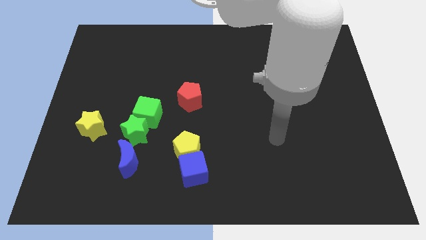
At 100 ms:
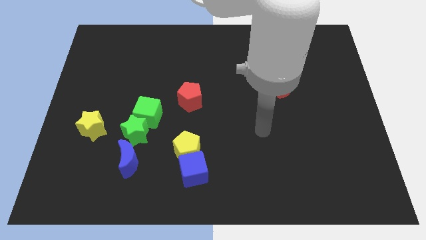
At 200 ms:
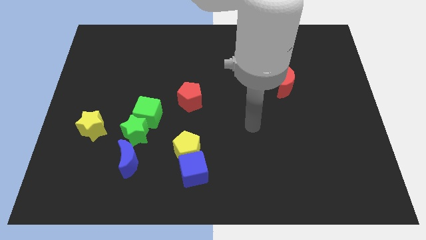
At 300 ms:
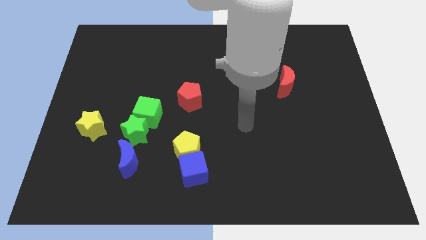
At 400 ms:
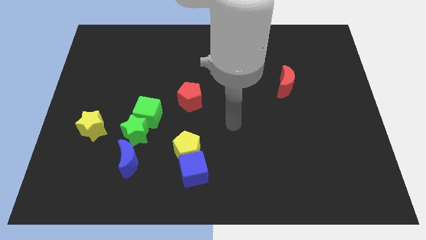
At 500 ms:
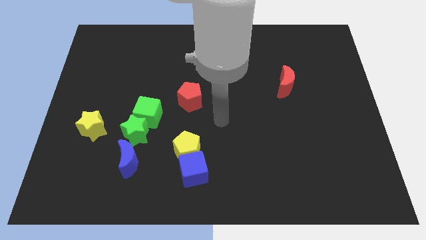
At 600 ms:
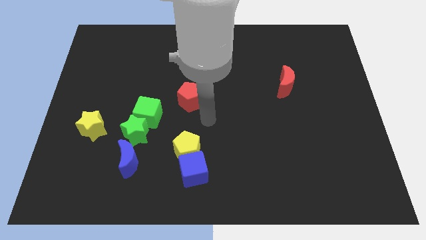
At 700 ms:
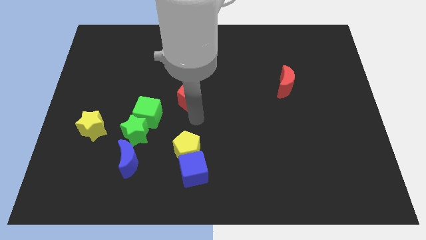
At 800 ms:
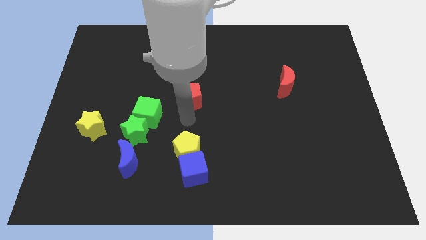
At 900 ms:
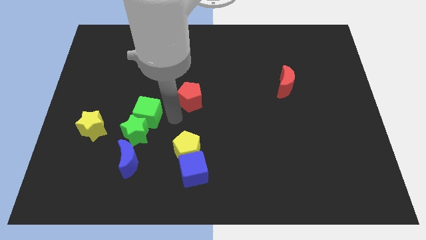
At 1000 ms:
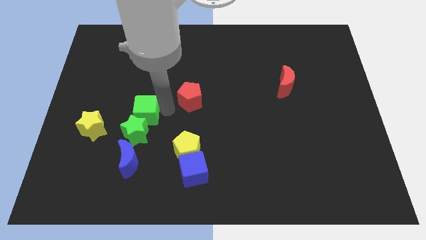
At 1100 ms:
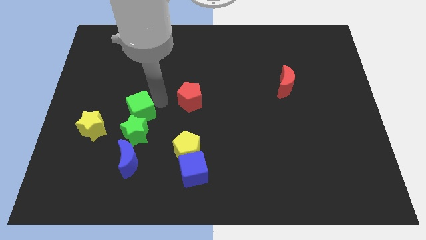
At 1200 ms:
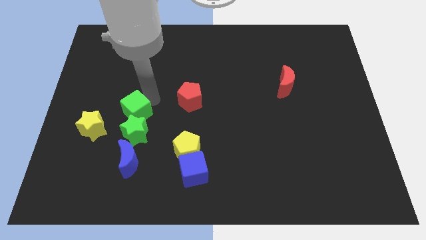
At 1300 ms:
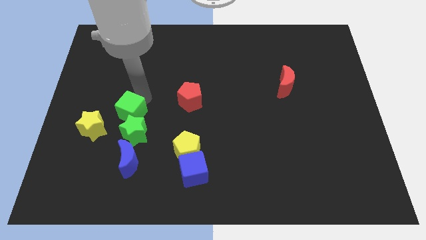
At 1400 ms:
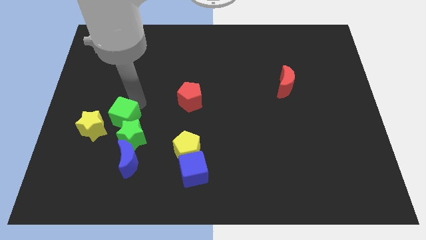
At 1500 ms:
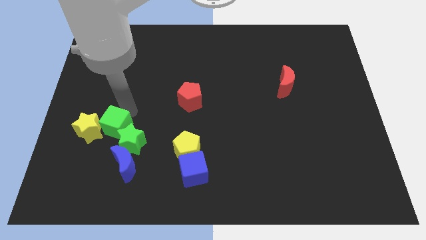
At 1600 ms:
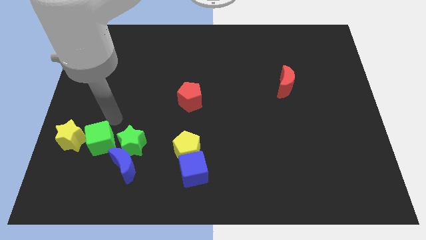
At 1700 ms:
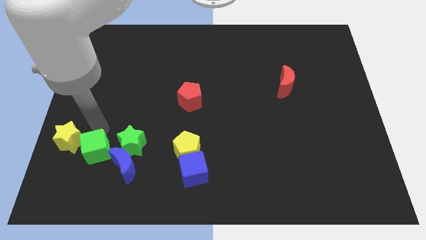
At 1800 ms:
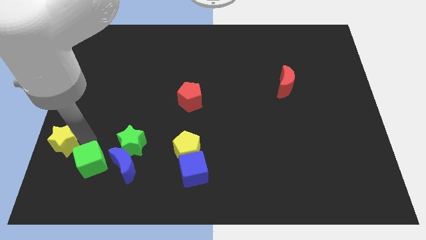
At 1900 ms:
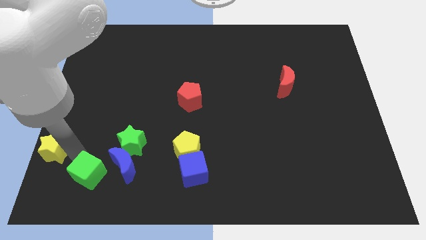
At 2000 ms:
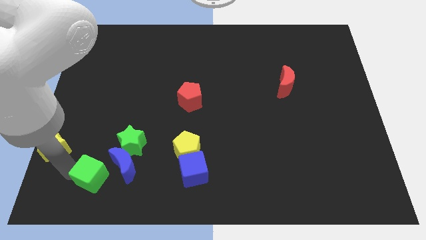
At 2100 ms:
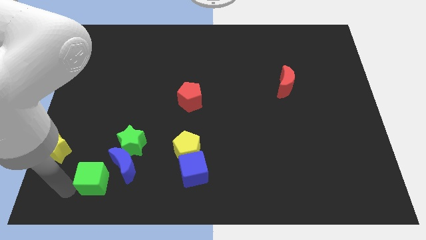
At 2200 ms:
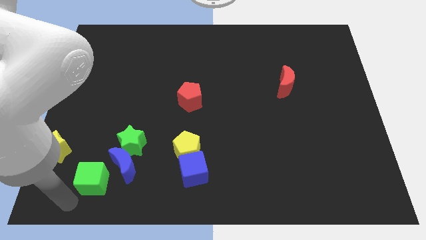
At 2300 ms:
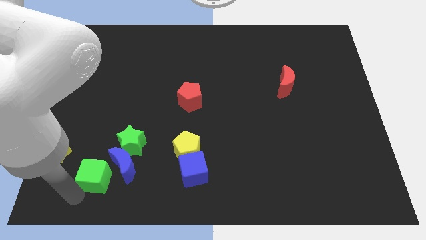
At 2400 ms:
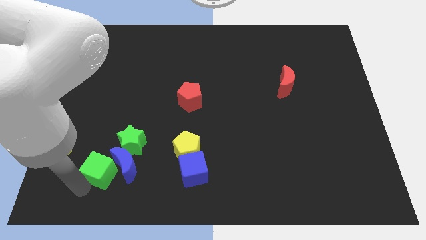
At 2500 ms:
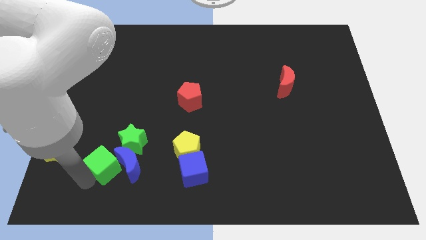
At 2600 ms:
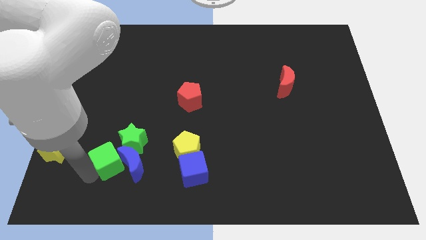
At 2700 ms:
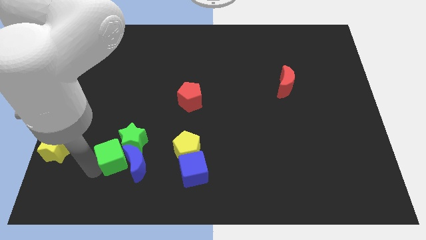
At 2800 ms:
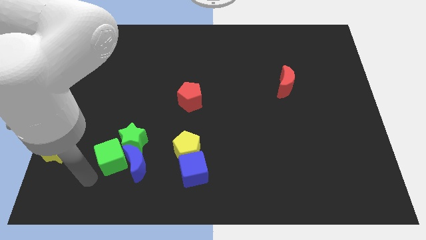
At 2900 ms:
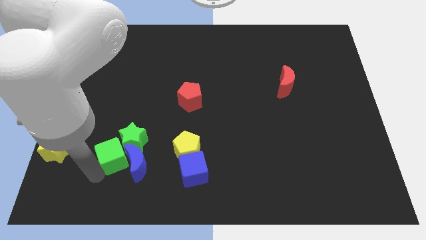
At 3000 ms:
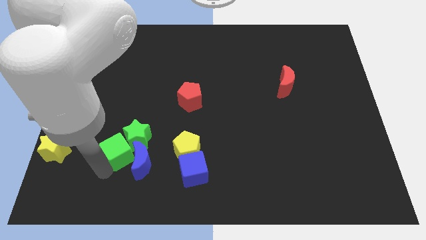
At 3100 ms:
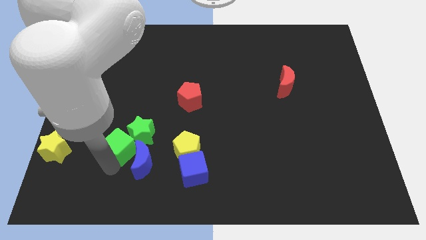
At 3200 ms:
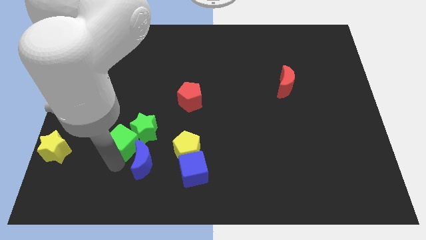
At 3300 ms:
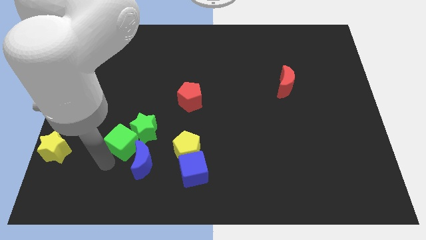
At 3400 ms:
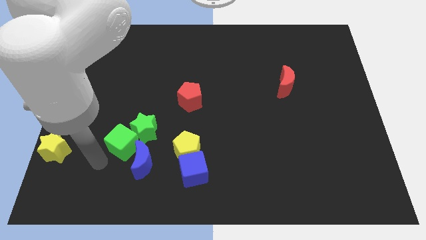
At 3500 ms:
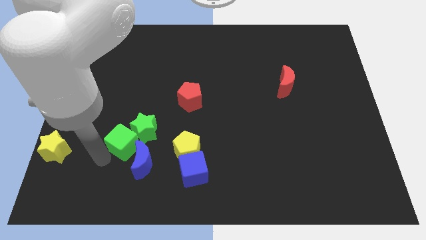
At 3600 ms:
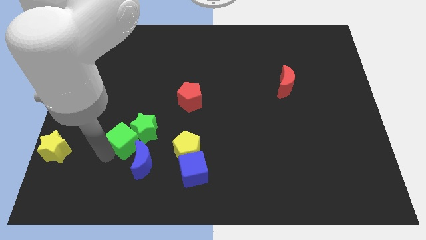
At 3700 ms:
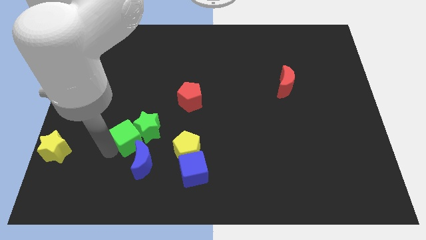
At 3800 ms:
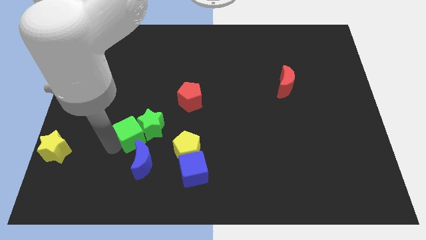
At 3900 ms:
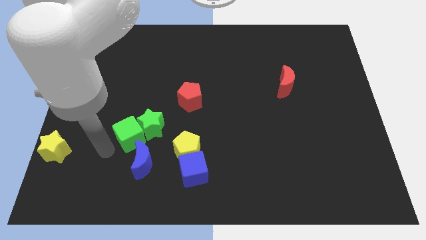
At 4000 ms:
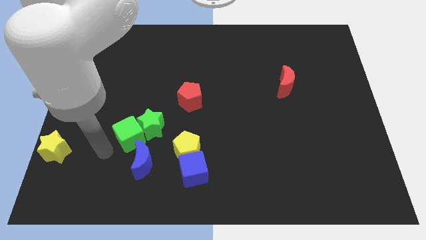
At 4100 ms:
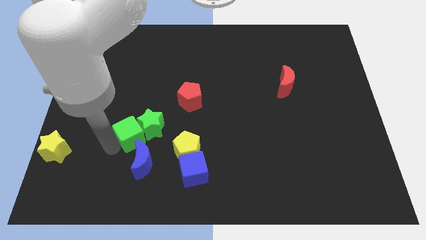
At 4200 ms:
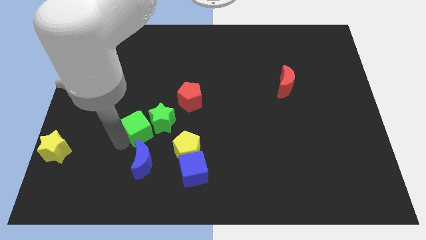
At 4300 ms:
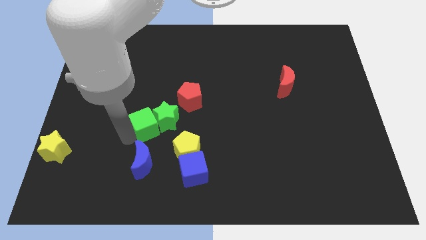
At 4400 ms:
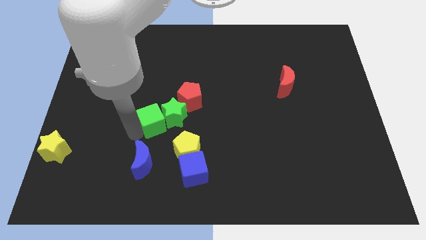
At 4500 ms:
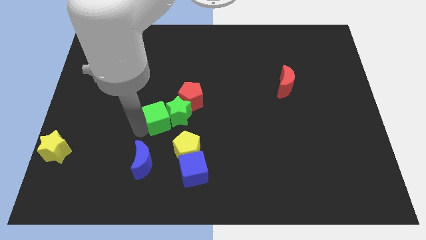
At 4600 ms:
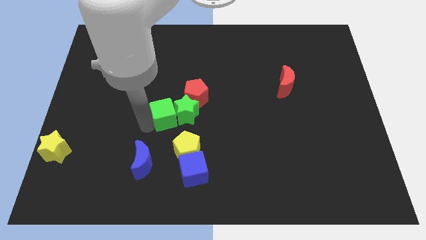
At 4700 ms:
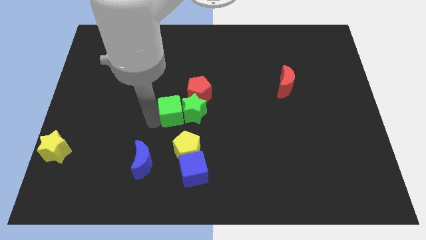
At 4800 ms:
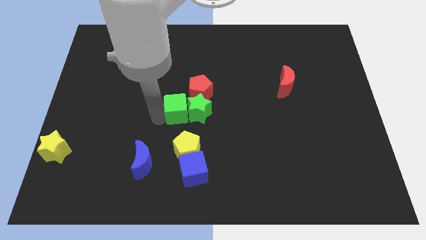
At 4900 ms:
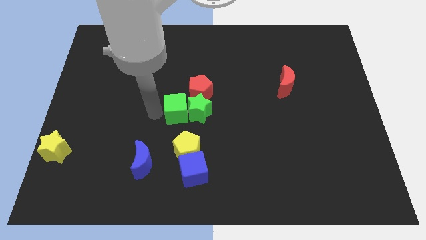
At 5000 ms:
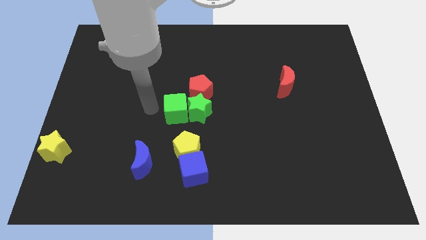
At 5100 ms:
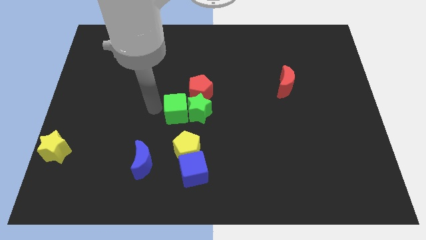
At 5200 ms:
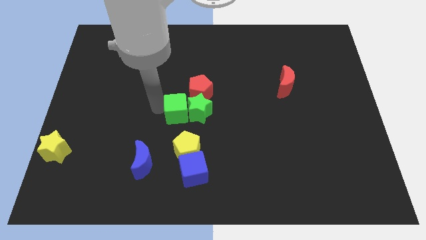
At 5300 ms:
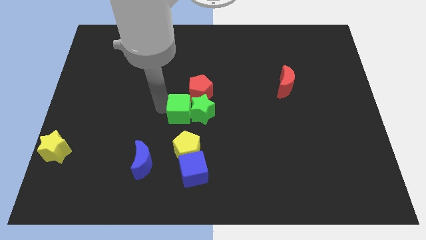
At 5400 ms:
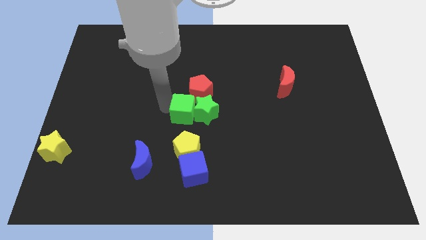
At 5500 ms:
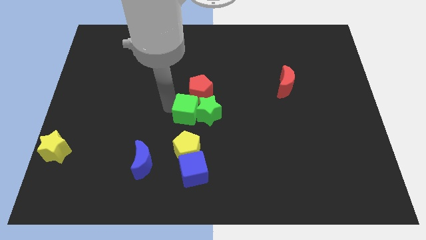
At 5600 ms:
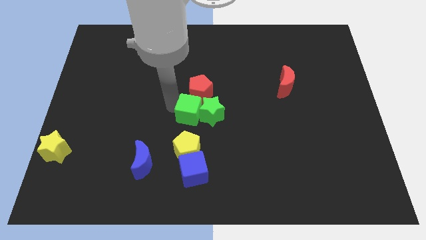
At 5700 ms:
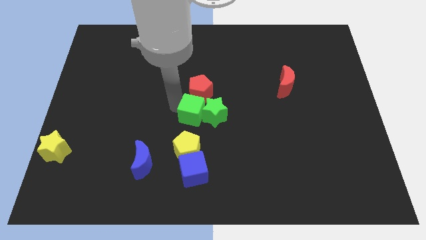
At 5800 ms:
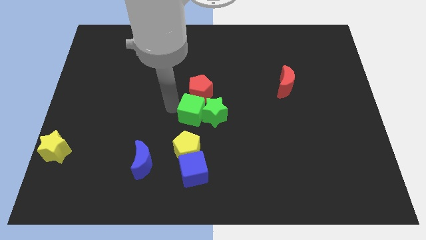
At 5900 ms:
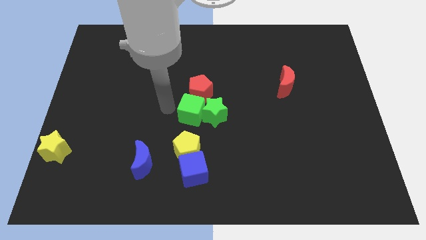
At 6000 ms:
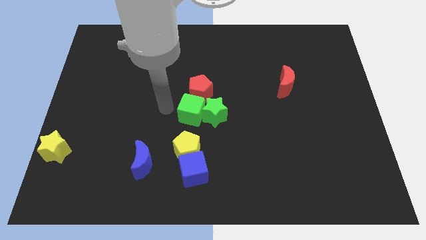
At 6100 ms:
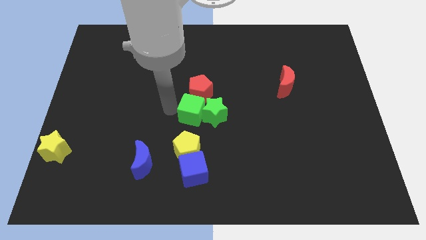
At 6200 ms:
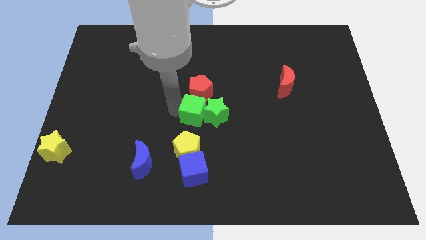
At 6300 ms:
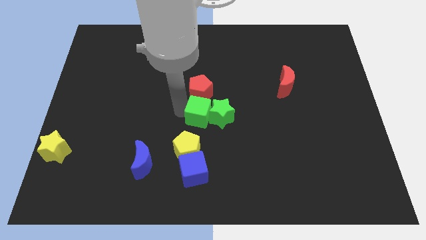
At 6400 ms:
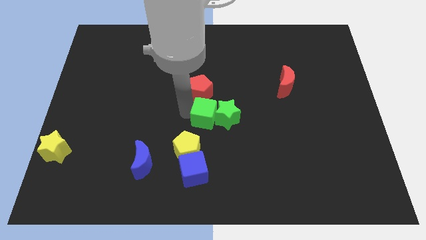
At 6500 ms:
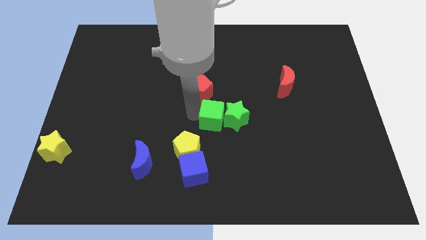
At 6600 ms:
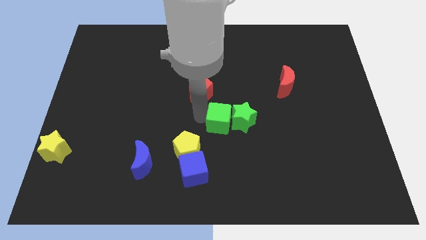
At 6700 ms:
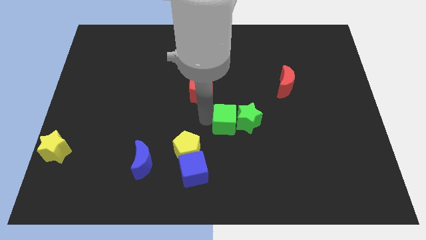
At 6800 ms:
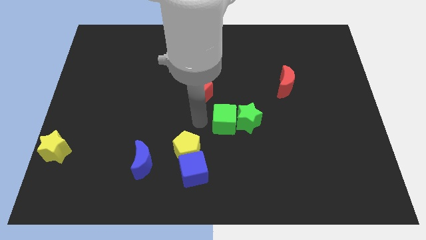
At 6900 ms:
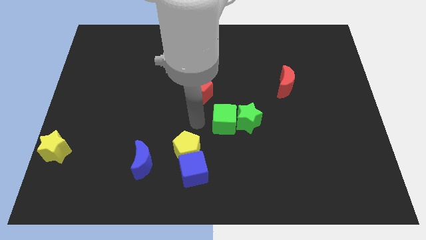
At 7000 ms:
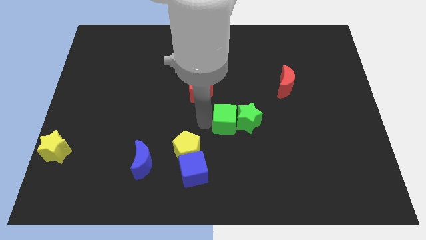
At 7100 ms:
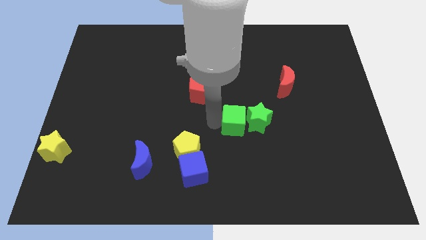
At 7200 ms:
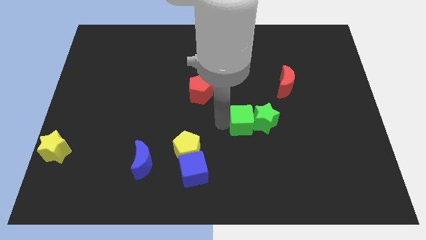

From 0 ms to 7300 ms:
move the green cube to the right

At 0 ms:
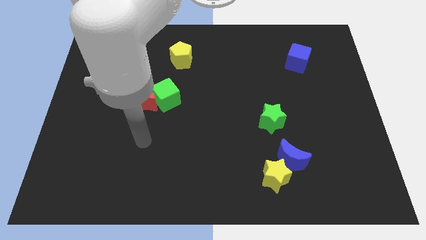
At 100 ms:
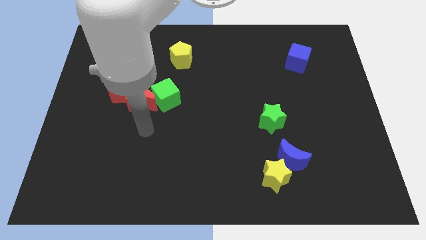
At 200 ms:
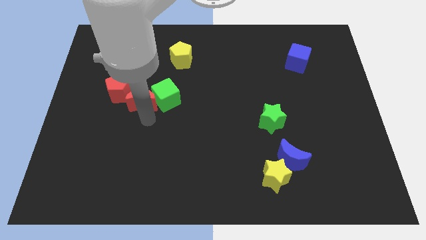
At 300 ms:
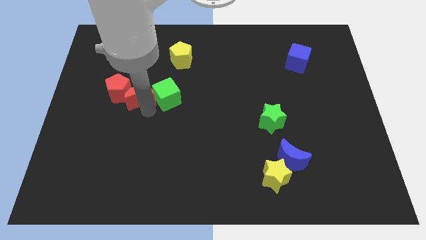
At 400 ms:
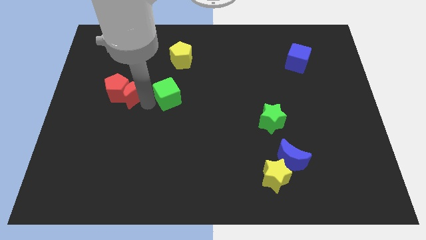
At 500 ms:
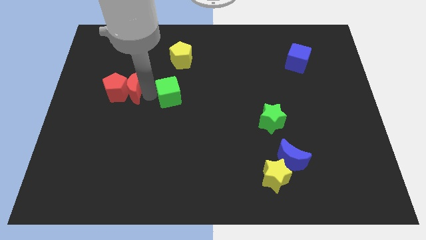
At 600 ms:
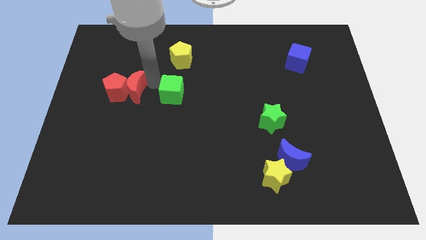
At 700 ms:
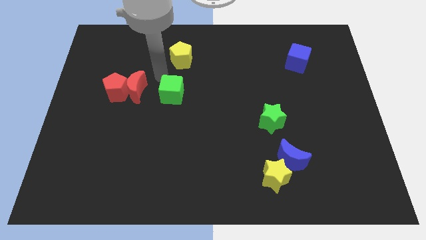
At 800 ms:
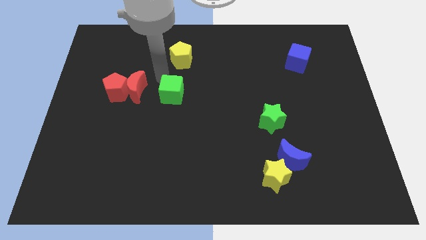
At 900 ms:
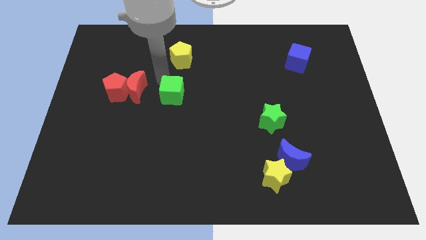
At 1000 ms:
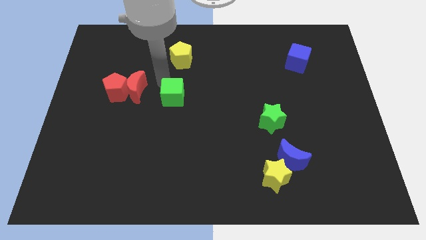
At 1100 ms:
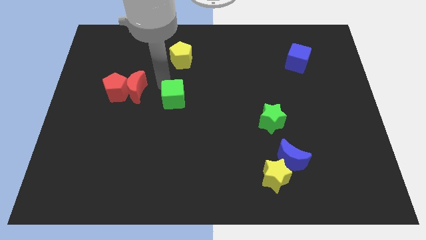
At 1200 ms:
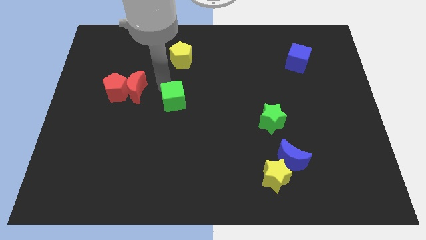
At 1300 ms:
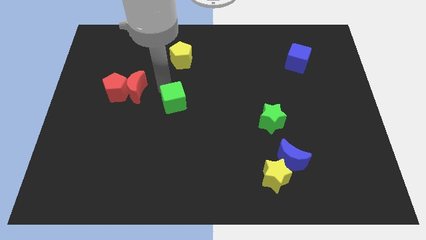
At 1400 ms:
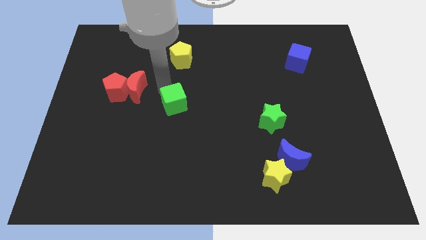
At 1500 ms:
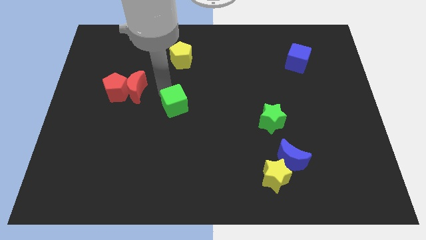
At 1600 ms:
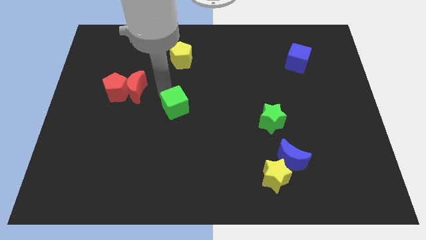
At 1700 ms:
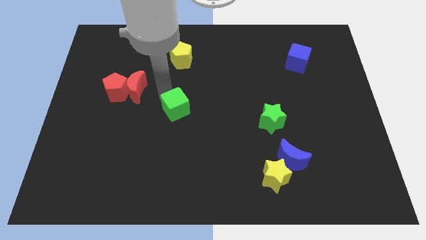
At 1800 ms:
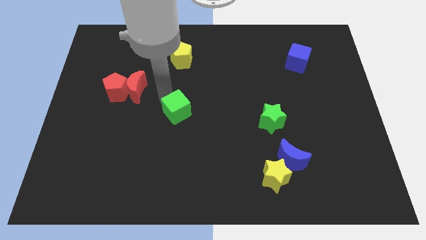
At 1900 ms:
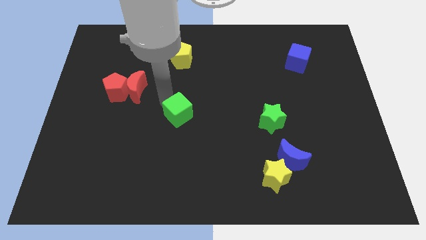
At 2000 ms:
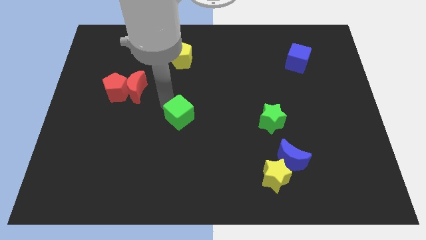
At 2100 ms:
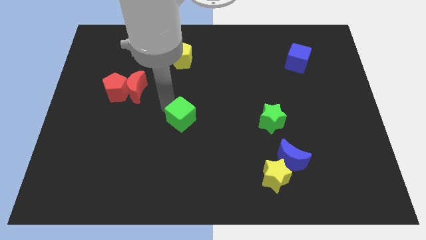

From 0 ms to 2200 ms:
move the green cube downwards and to the right diagonally a bit
